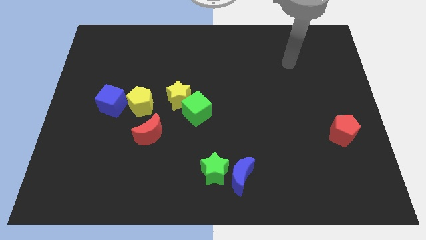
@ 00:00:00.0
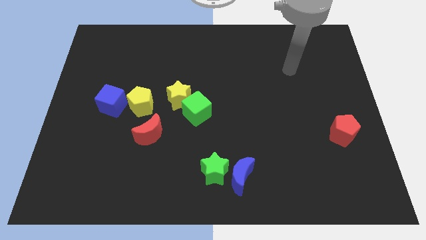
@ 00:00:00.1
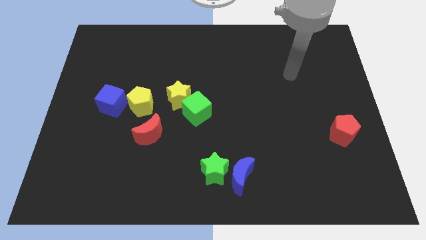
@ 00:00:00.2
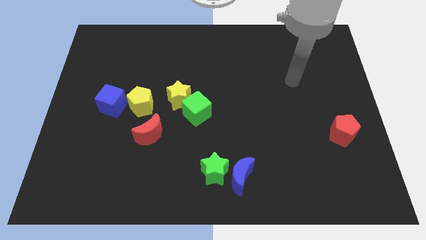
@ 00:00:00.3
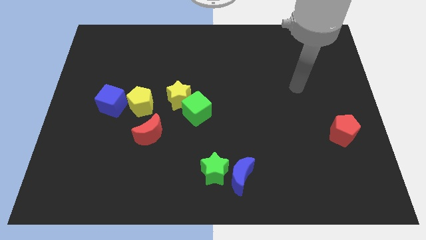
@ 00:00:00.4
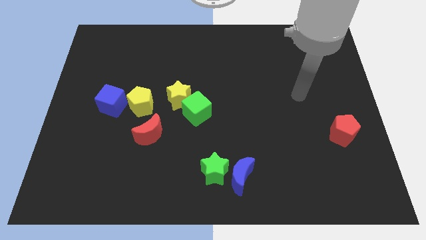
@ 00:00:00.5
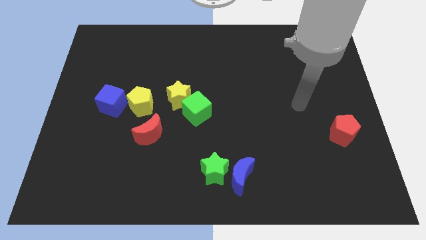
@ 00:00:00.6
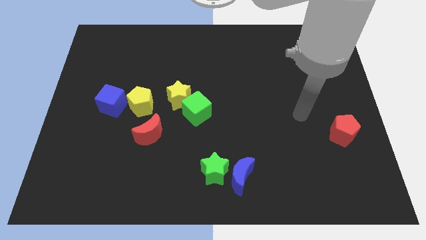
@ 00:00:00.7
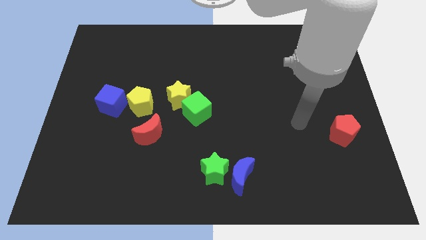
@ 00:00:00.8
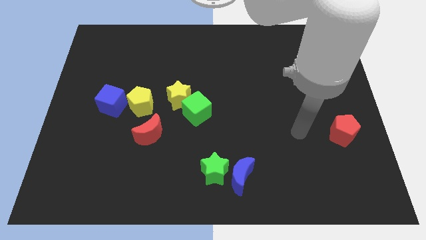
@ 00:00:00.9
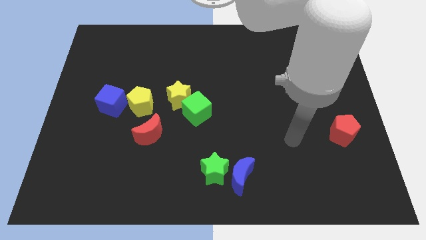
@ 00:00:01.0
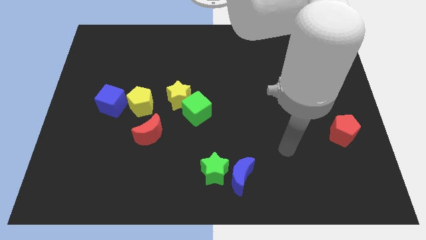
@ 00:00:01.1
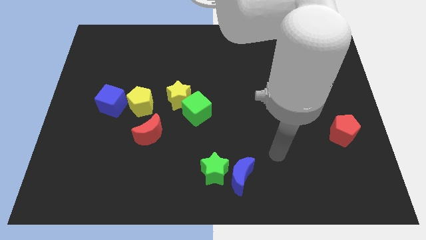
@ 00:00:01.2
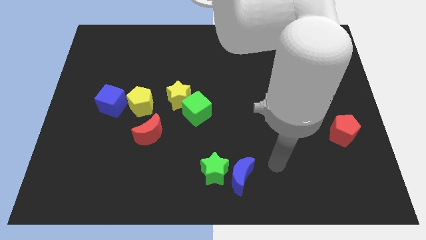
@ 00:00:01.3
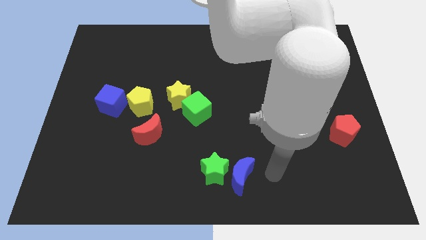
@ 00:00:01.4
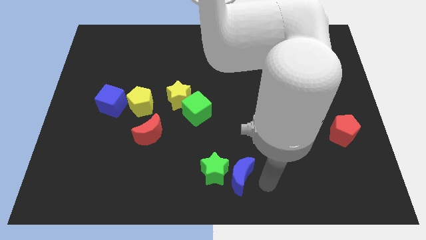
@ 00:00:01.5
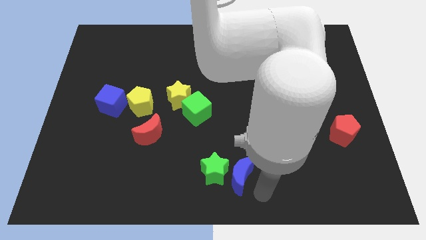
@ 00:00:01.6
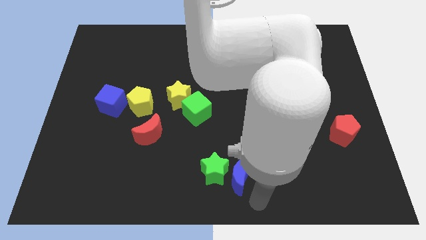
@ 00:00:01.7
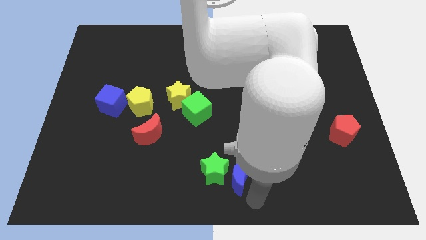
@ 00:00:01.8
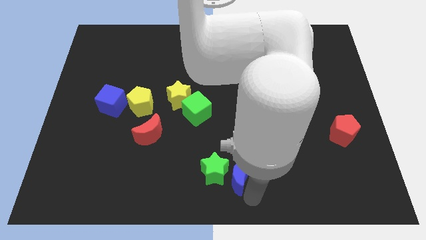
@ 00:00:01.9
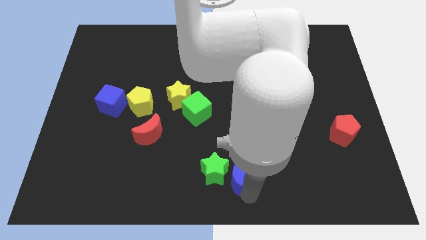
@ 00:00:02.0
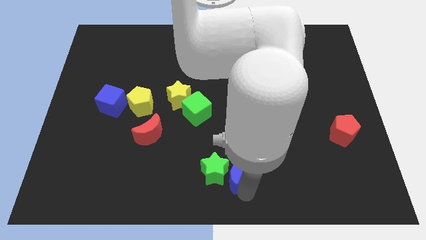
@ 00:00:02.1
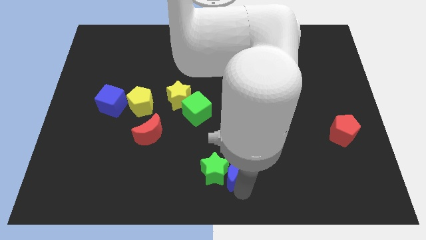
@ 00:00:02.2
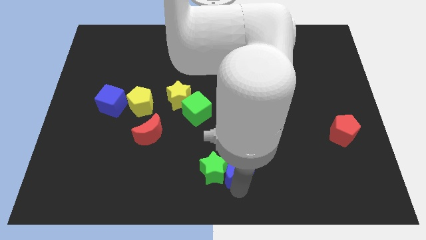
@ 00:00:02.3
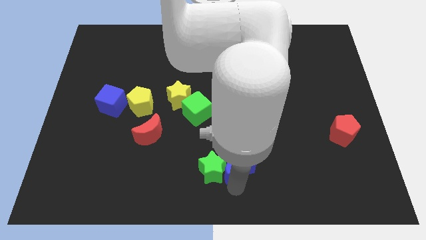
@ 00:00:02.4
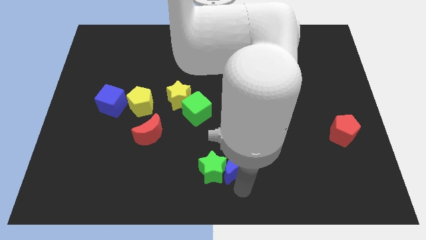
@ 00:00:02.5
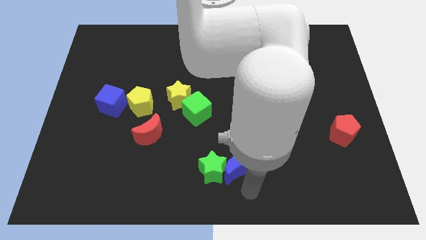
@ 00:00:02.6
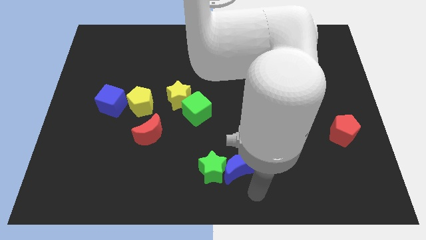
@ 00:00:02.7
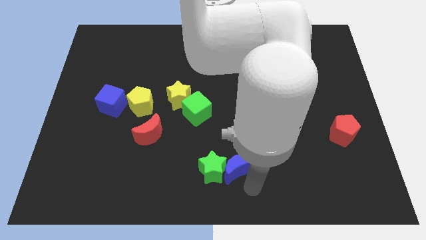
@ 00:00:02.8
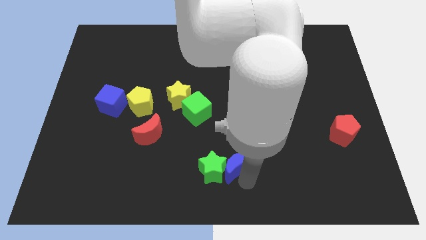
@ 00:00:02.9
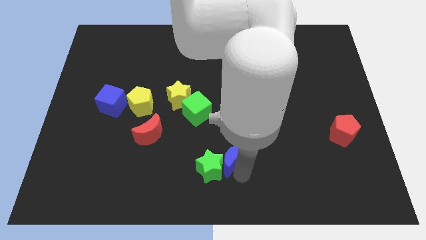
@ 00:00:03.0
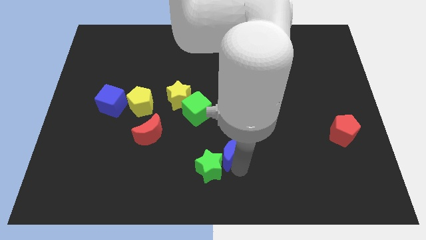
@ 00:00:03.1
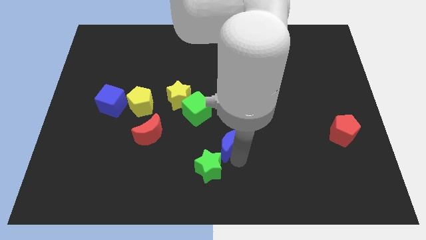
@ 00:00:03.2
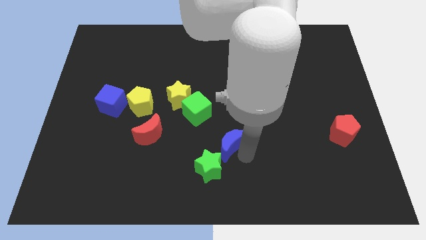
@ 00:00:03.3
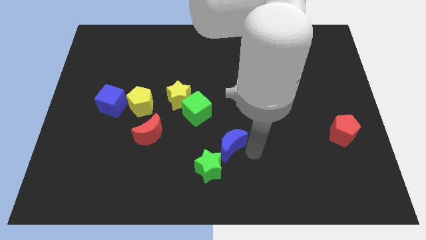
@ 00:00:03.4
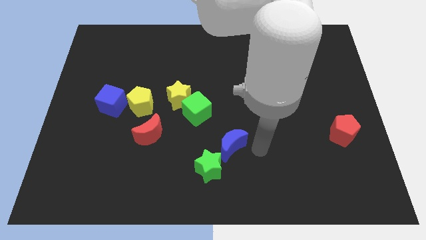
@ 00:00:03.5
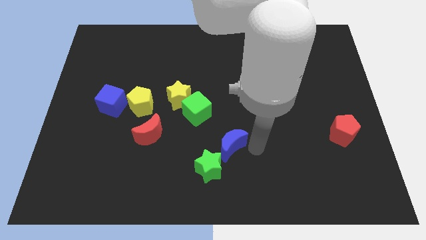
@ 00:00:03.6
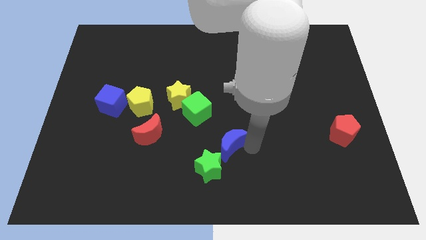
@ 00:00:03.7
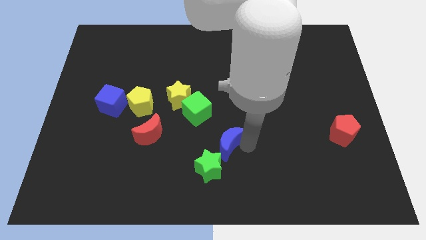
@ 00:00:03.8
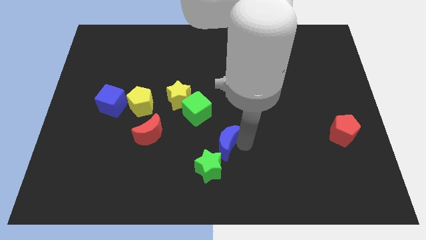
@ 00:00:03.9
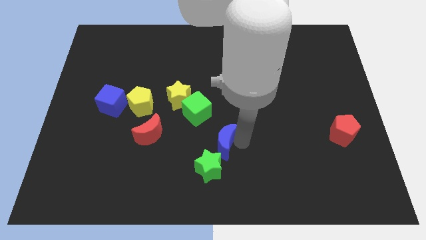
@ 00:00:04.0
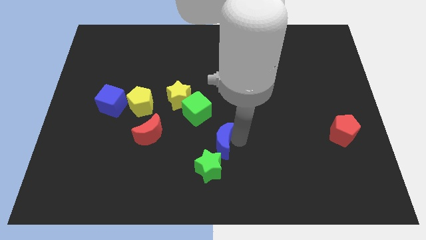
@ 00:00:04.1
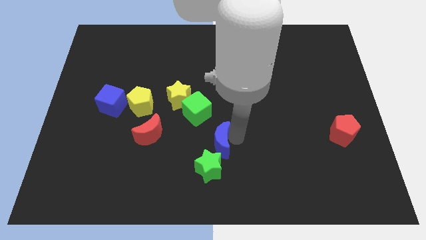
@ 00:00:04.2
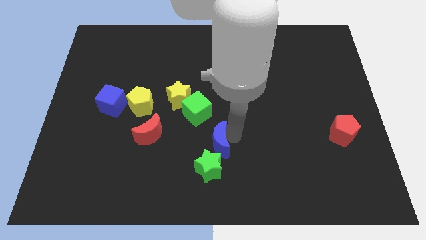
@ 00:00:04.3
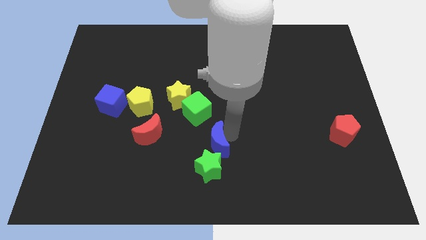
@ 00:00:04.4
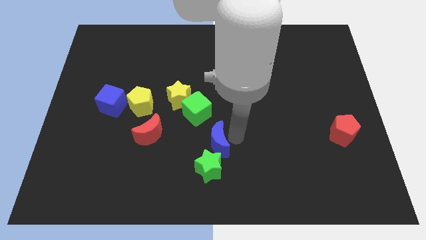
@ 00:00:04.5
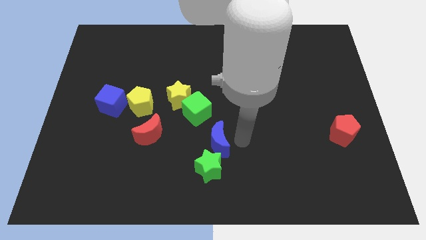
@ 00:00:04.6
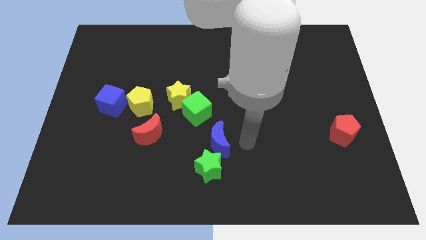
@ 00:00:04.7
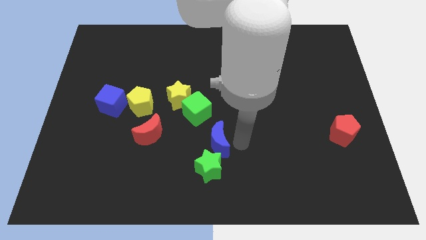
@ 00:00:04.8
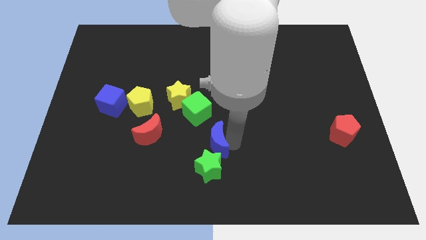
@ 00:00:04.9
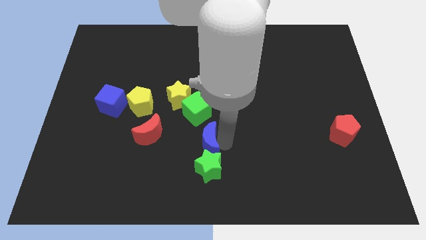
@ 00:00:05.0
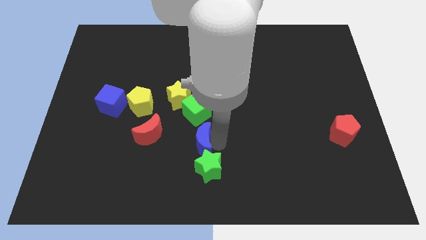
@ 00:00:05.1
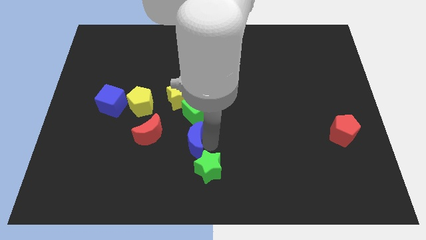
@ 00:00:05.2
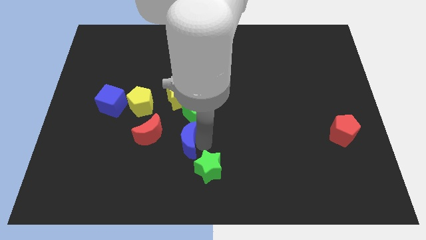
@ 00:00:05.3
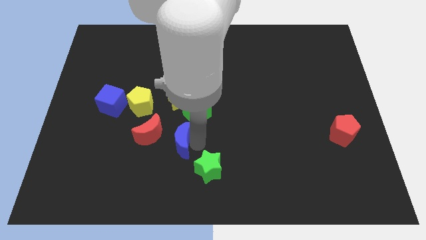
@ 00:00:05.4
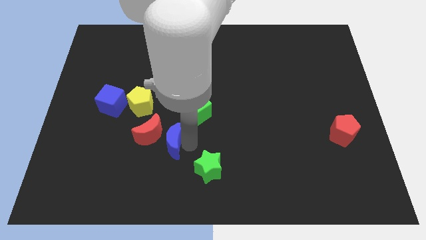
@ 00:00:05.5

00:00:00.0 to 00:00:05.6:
move the blue moon towards the red moon

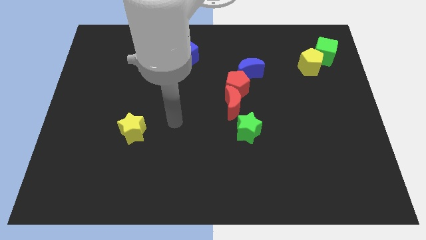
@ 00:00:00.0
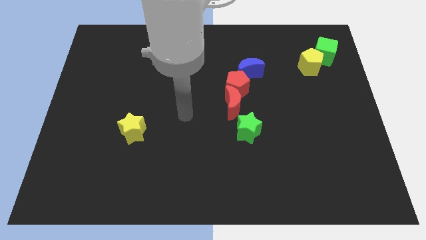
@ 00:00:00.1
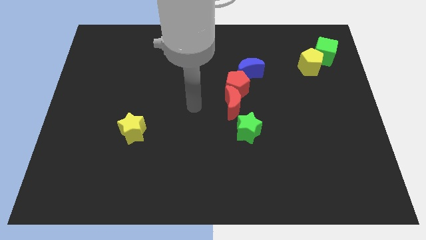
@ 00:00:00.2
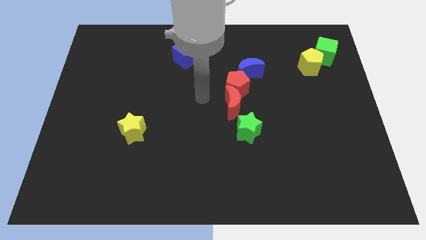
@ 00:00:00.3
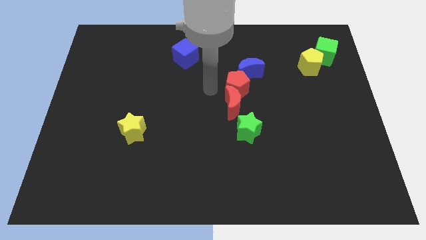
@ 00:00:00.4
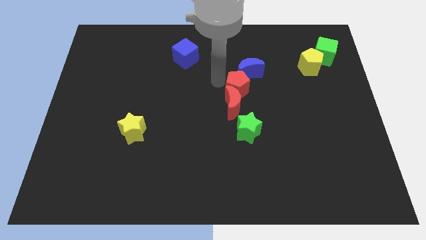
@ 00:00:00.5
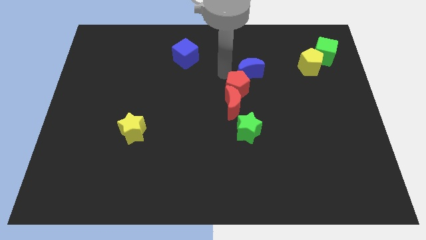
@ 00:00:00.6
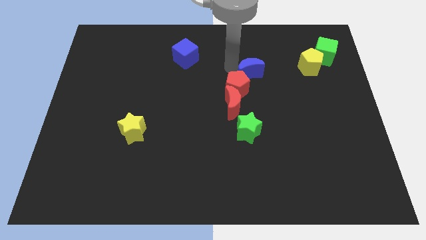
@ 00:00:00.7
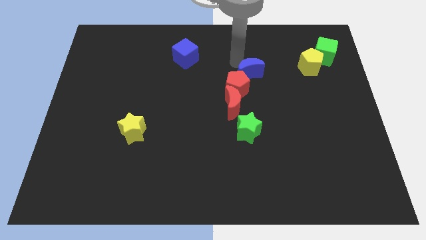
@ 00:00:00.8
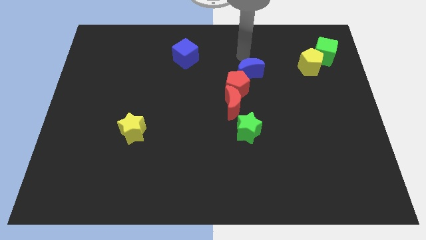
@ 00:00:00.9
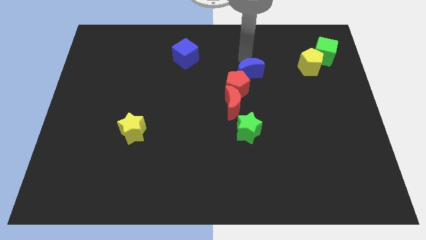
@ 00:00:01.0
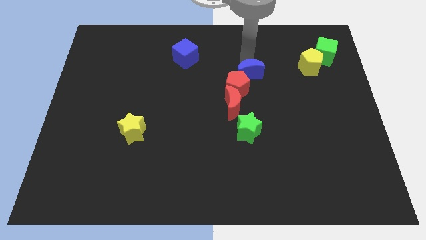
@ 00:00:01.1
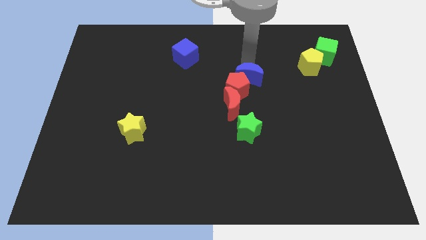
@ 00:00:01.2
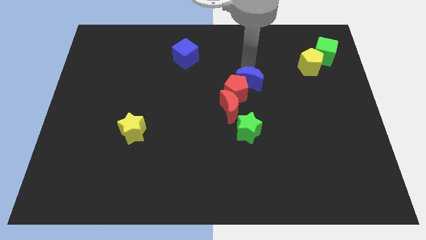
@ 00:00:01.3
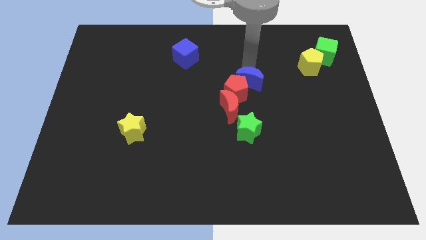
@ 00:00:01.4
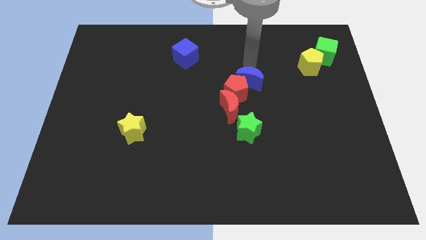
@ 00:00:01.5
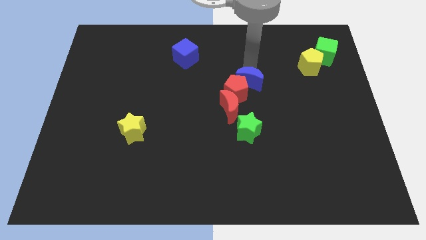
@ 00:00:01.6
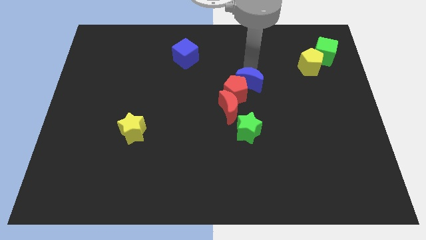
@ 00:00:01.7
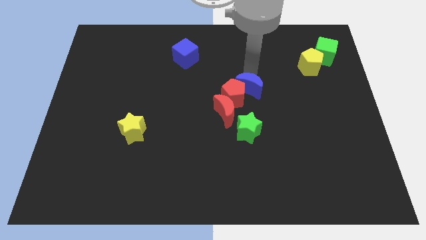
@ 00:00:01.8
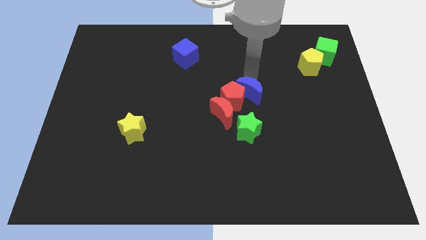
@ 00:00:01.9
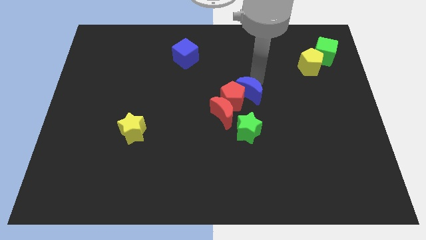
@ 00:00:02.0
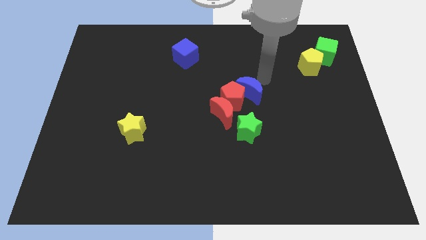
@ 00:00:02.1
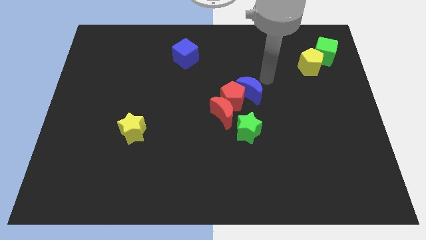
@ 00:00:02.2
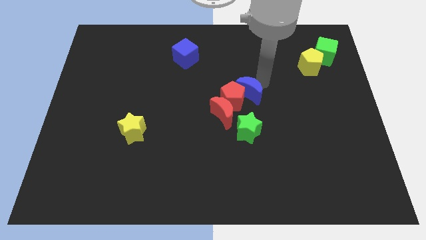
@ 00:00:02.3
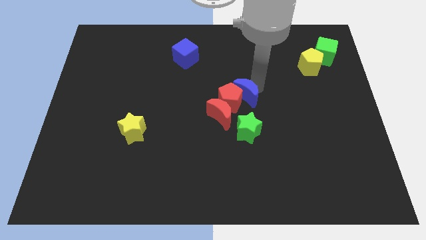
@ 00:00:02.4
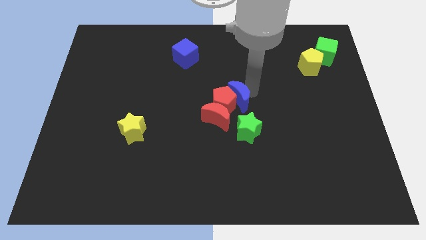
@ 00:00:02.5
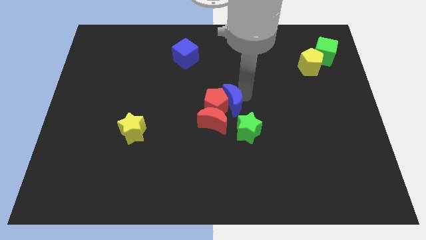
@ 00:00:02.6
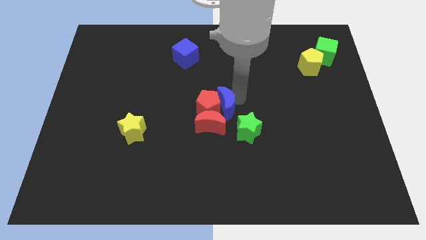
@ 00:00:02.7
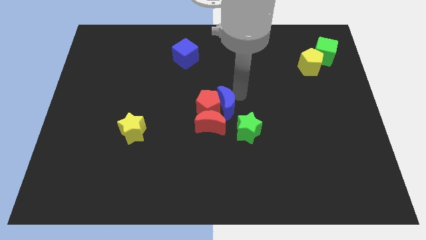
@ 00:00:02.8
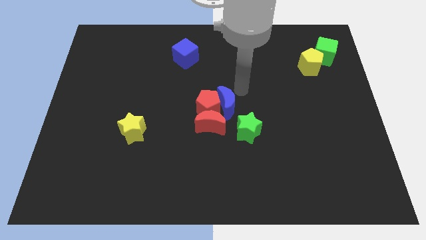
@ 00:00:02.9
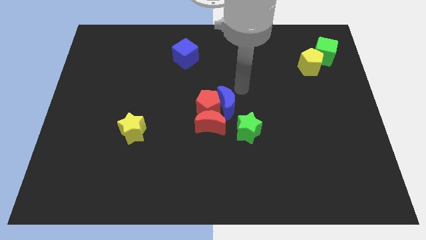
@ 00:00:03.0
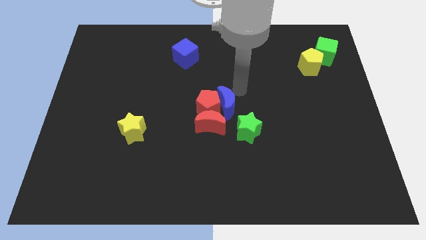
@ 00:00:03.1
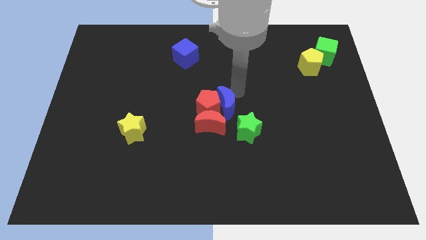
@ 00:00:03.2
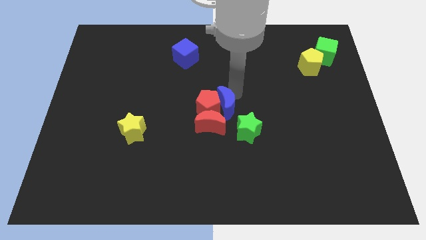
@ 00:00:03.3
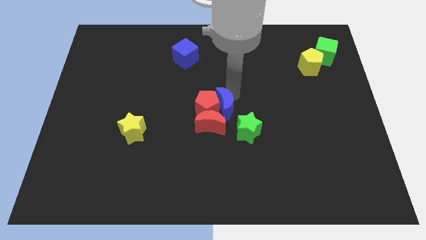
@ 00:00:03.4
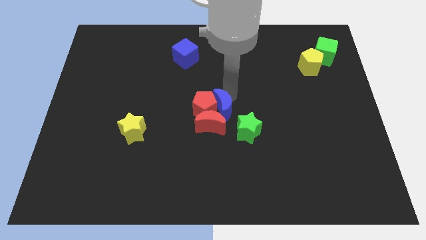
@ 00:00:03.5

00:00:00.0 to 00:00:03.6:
put the blue moon close to the red moon
